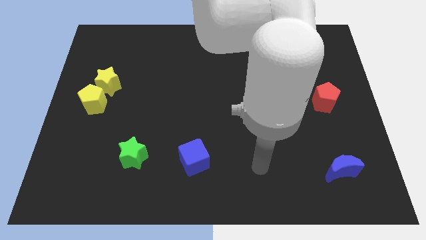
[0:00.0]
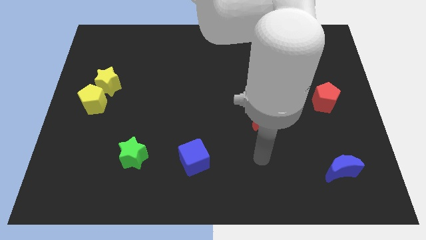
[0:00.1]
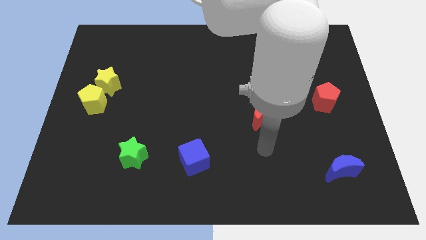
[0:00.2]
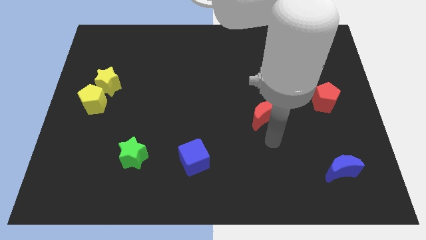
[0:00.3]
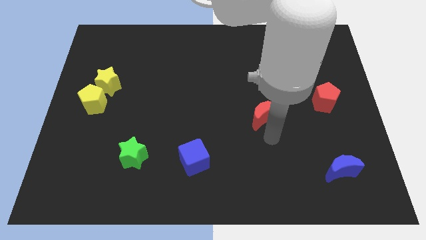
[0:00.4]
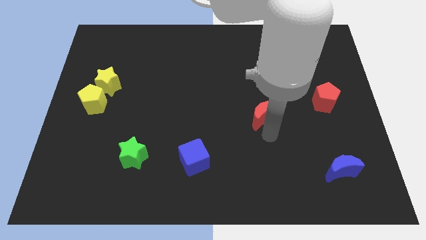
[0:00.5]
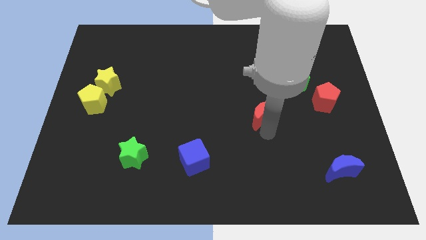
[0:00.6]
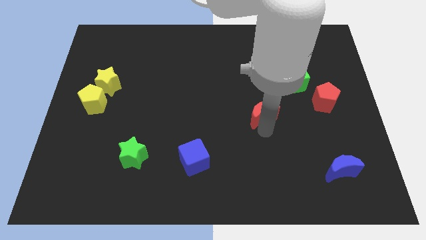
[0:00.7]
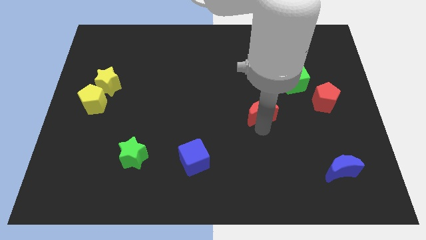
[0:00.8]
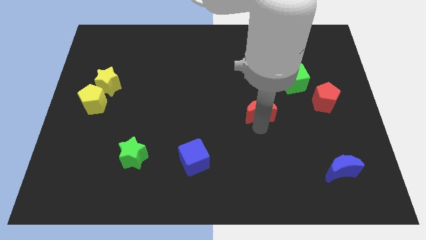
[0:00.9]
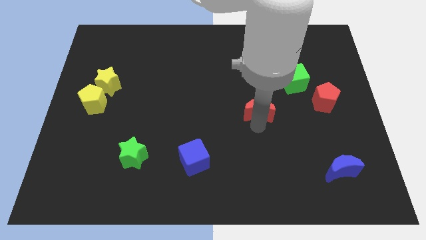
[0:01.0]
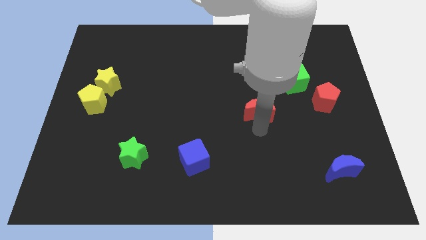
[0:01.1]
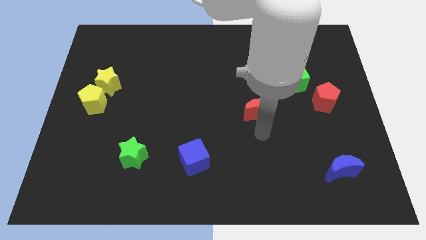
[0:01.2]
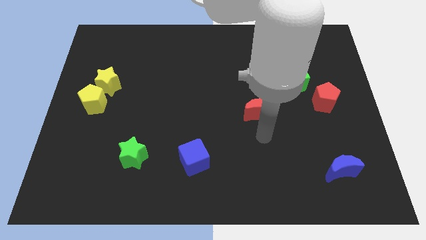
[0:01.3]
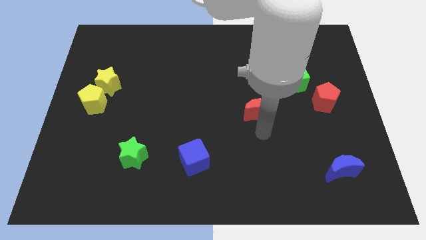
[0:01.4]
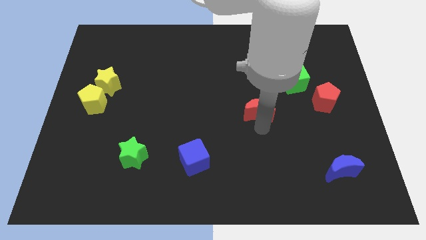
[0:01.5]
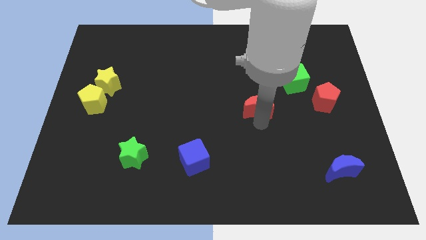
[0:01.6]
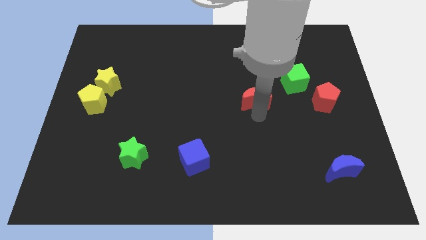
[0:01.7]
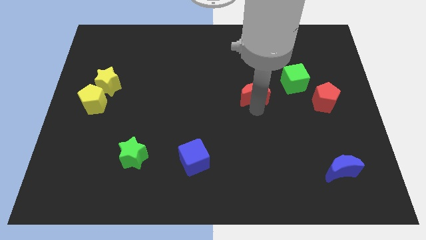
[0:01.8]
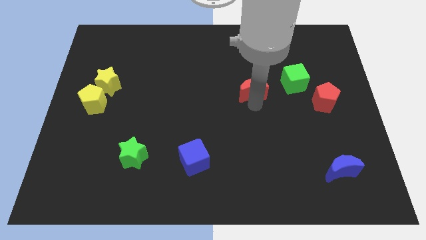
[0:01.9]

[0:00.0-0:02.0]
slide the red moon upwards somewhat

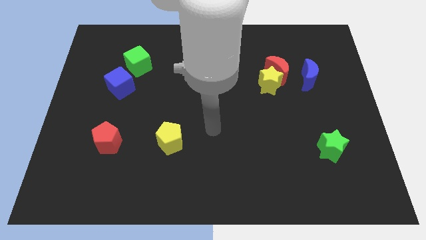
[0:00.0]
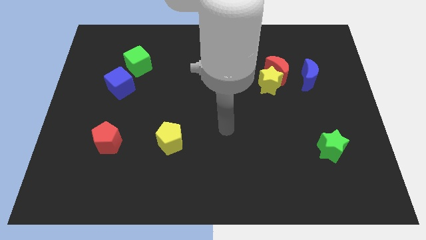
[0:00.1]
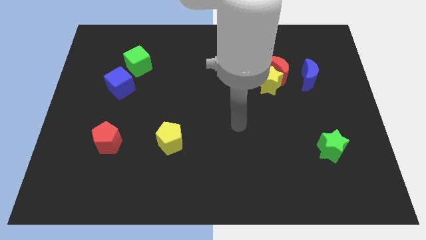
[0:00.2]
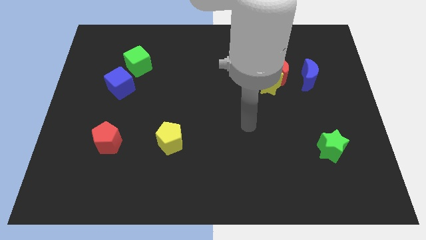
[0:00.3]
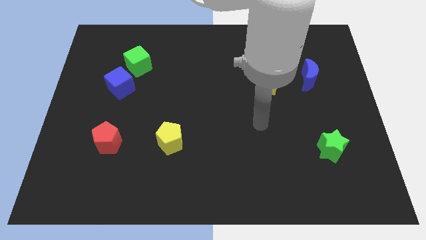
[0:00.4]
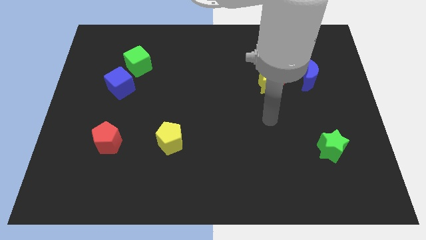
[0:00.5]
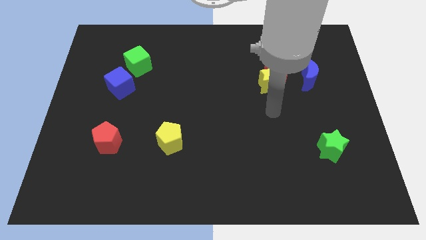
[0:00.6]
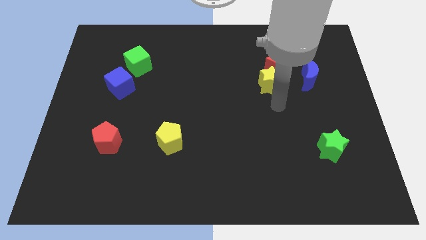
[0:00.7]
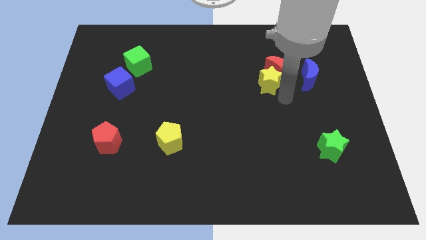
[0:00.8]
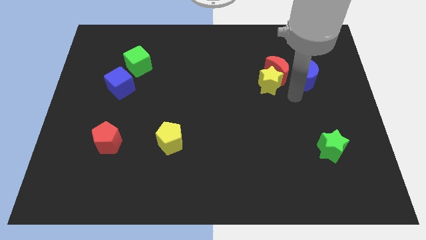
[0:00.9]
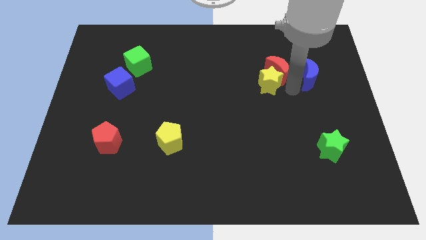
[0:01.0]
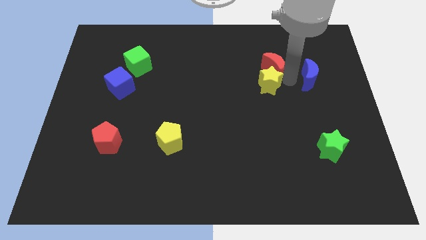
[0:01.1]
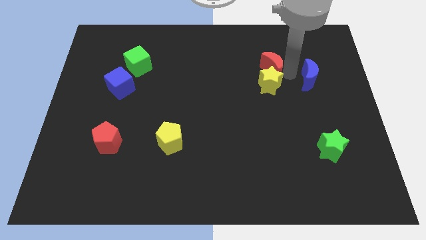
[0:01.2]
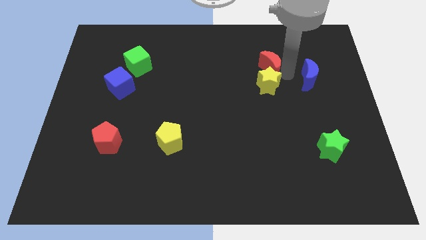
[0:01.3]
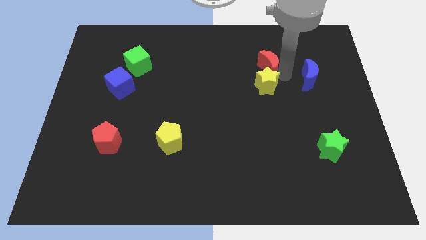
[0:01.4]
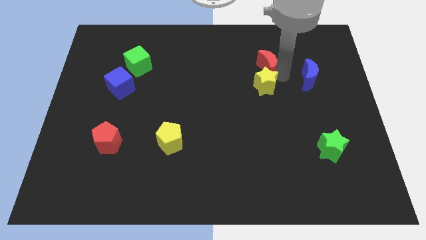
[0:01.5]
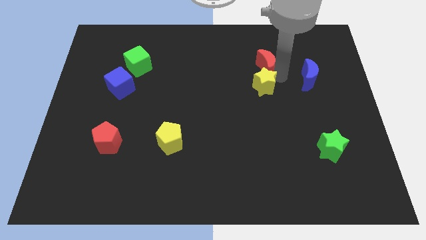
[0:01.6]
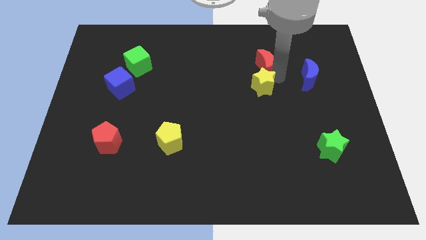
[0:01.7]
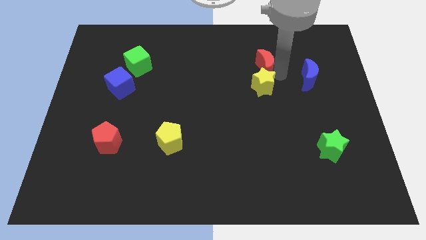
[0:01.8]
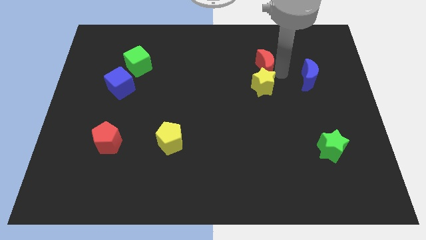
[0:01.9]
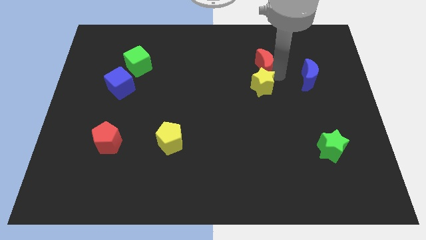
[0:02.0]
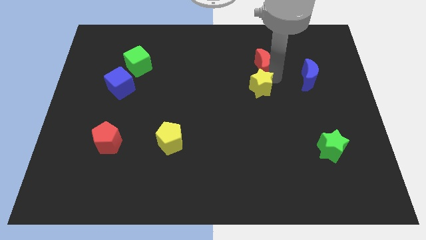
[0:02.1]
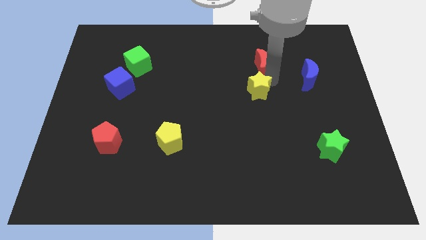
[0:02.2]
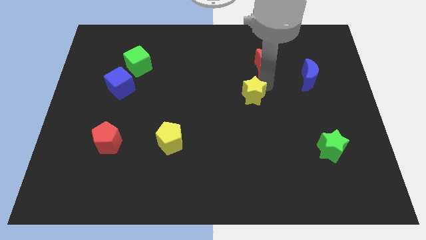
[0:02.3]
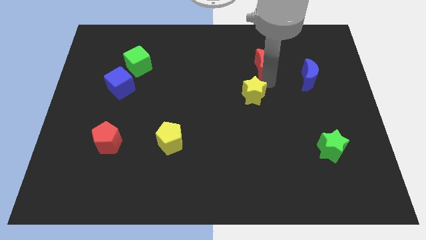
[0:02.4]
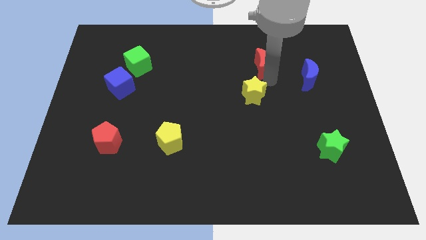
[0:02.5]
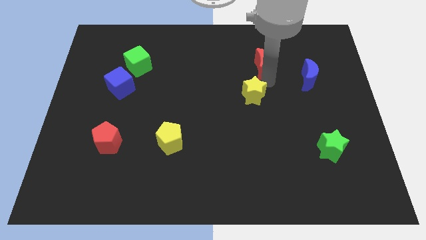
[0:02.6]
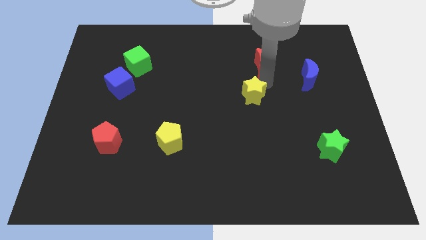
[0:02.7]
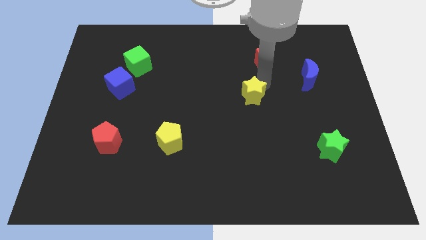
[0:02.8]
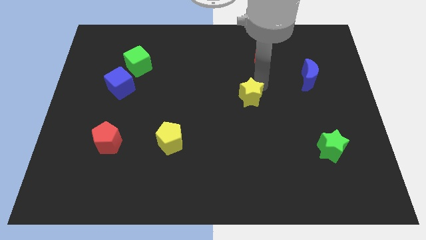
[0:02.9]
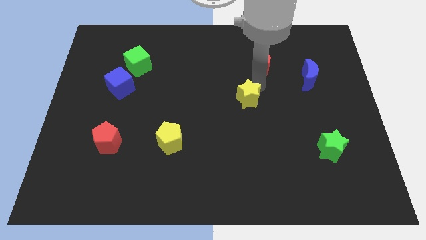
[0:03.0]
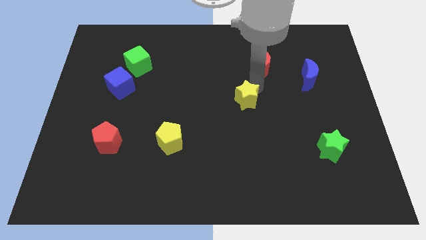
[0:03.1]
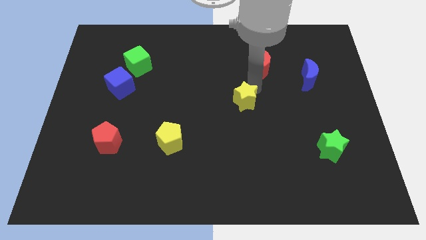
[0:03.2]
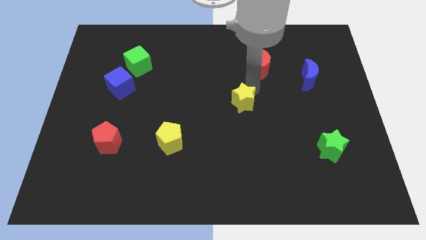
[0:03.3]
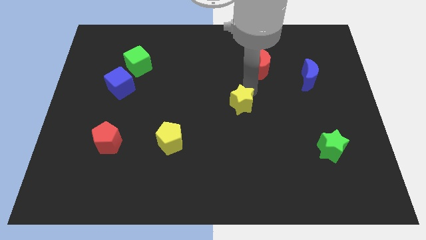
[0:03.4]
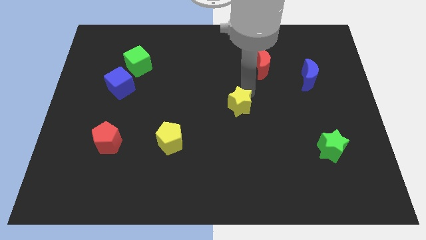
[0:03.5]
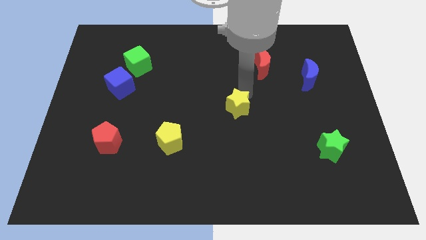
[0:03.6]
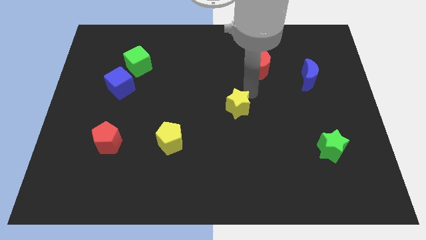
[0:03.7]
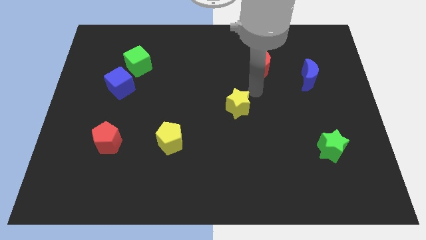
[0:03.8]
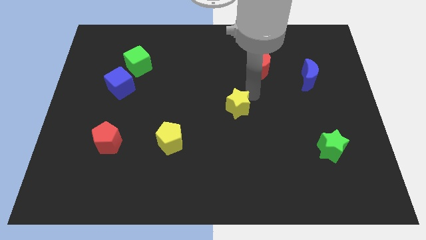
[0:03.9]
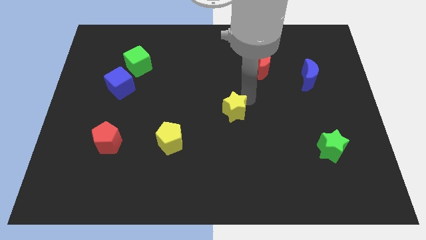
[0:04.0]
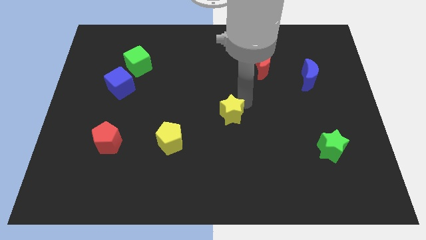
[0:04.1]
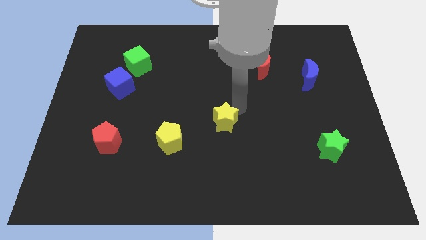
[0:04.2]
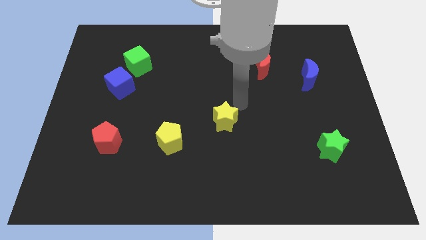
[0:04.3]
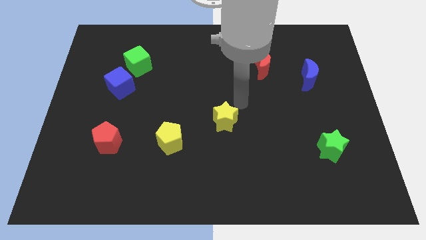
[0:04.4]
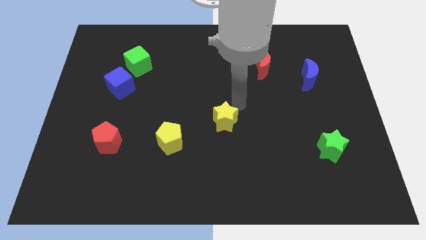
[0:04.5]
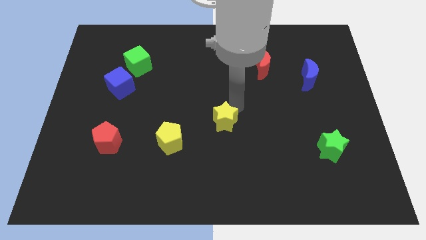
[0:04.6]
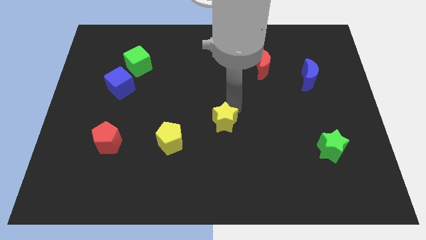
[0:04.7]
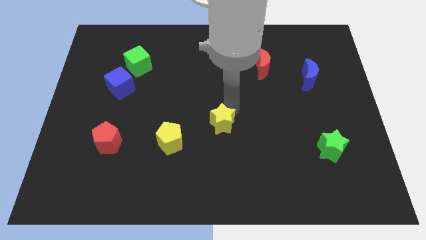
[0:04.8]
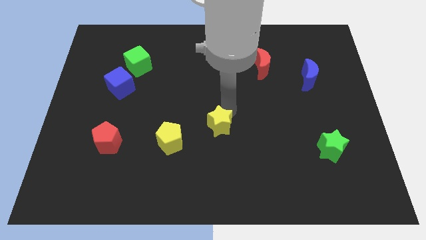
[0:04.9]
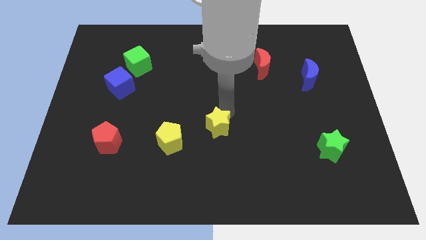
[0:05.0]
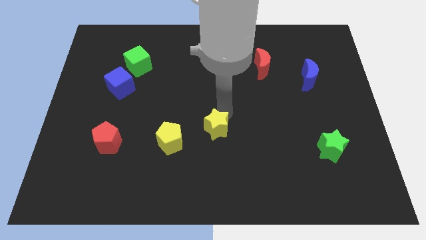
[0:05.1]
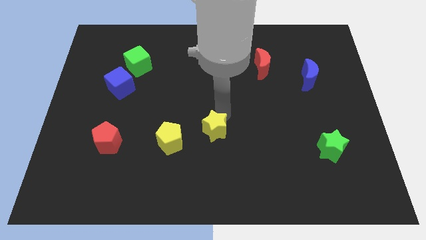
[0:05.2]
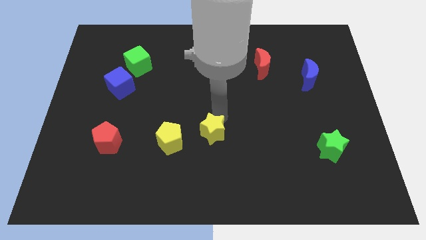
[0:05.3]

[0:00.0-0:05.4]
slide the yellow star downwards and to the left

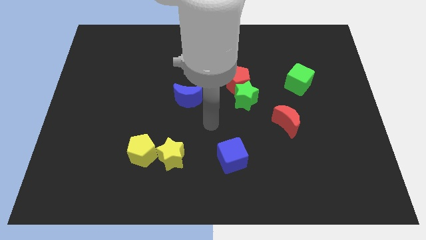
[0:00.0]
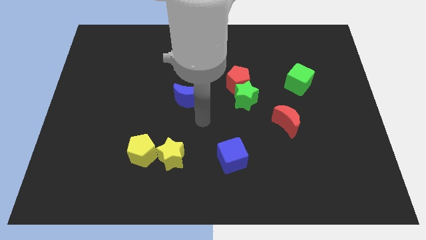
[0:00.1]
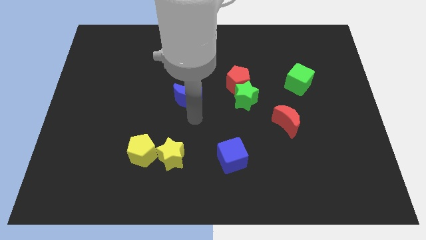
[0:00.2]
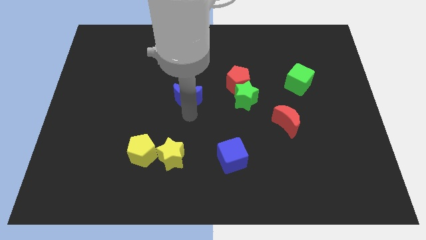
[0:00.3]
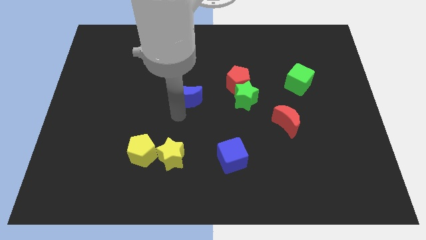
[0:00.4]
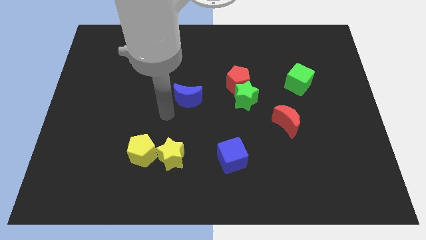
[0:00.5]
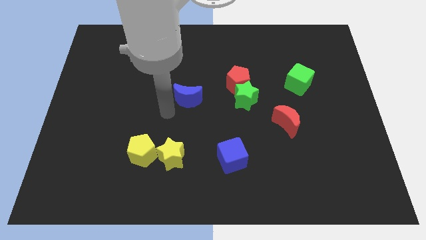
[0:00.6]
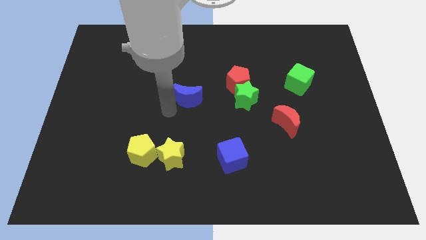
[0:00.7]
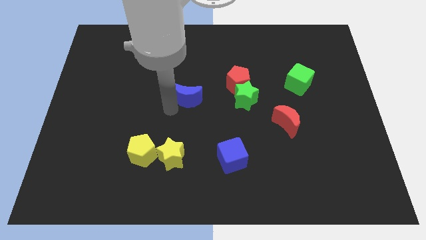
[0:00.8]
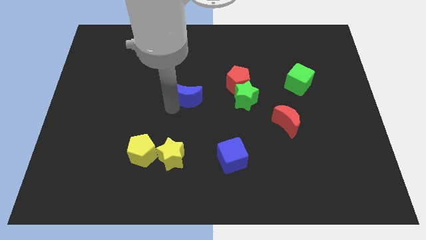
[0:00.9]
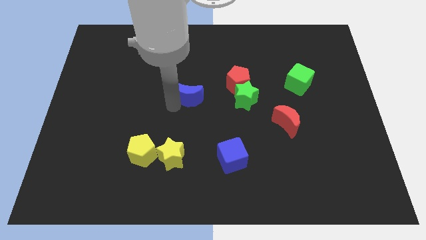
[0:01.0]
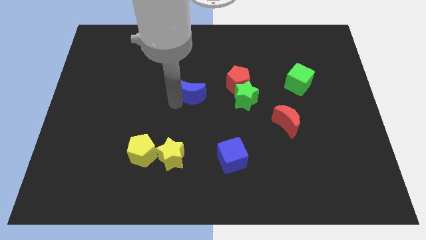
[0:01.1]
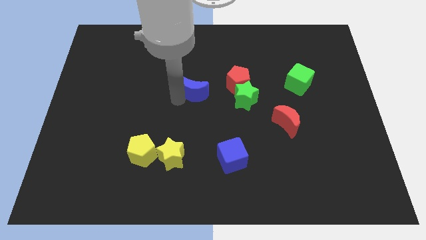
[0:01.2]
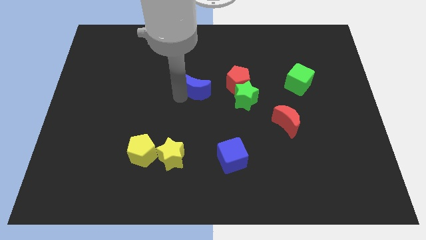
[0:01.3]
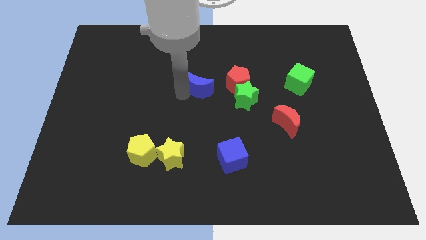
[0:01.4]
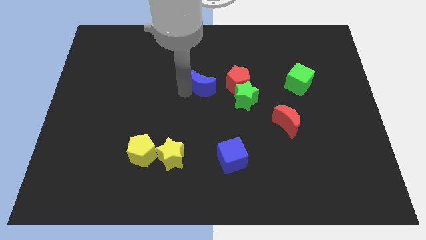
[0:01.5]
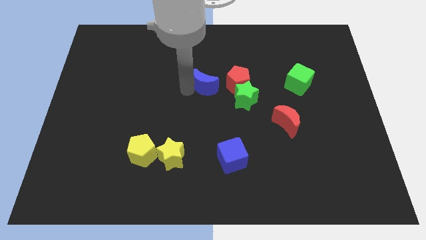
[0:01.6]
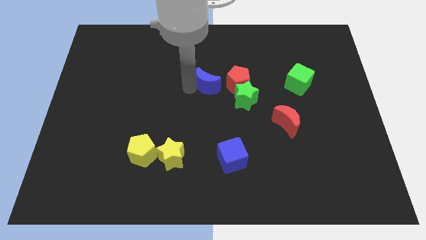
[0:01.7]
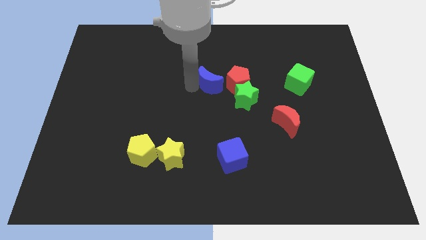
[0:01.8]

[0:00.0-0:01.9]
move the blue moon up and then to the right a little bit
